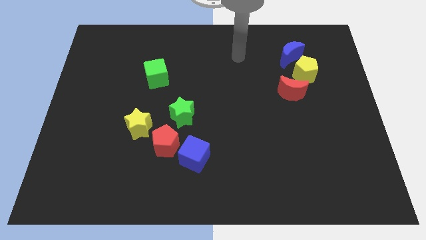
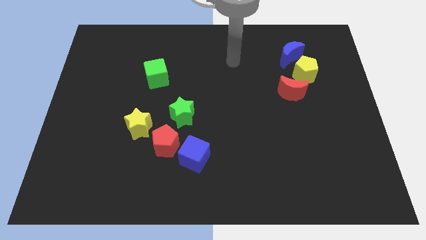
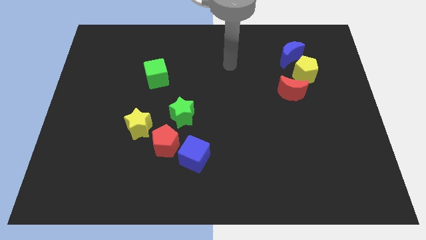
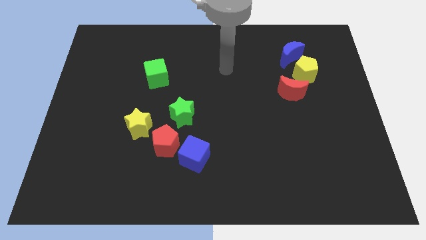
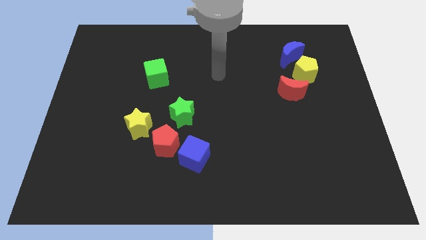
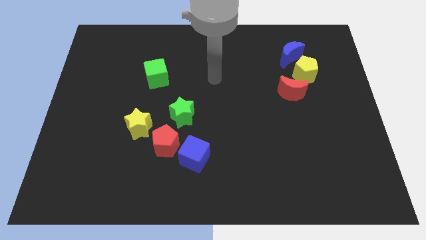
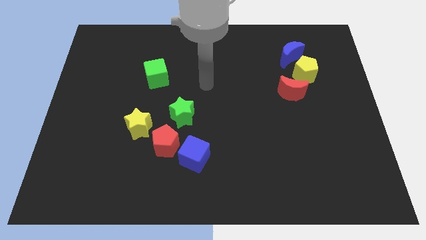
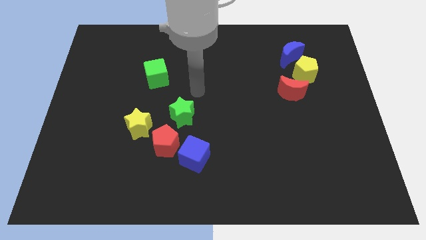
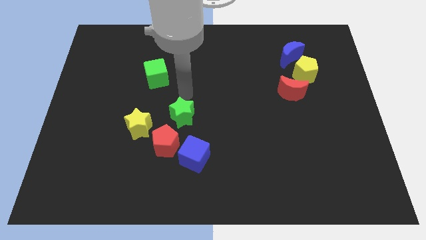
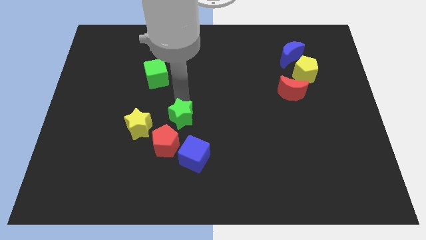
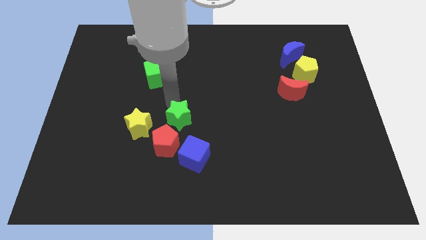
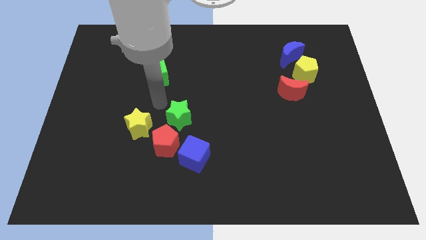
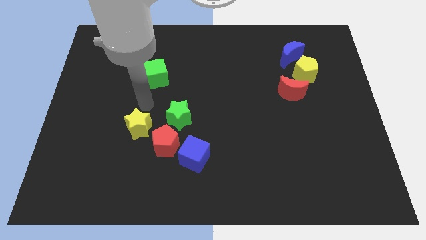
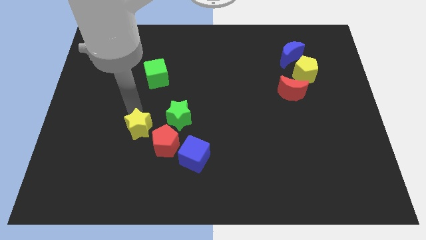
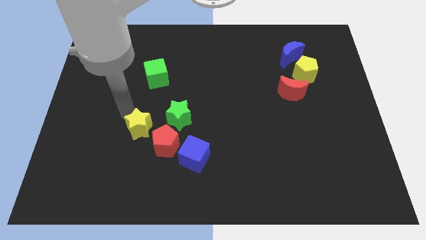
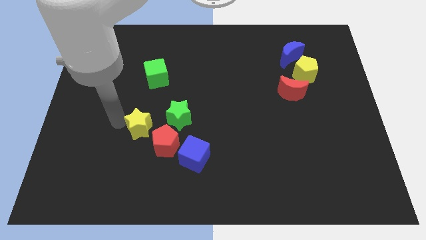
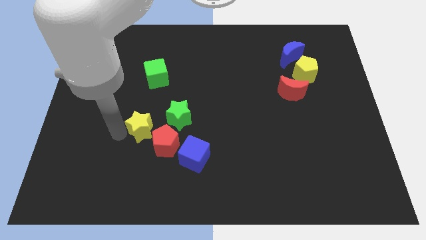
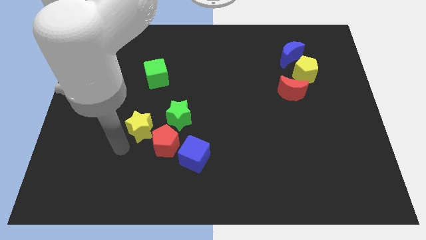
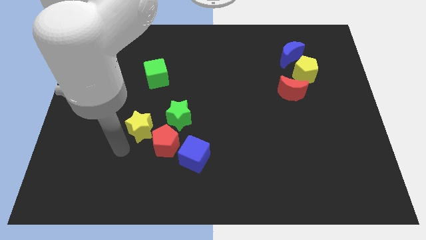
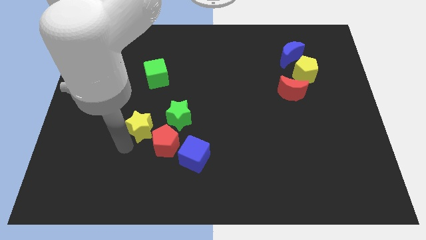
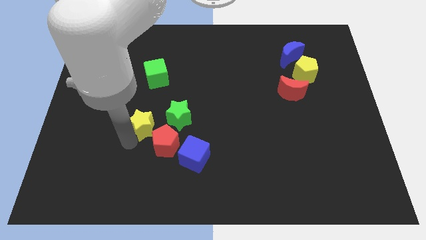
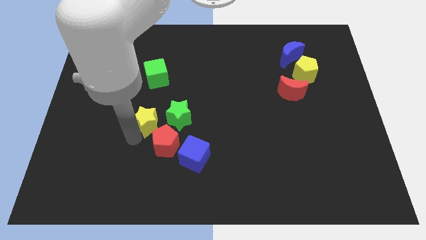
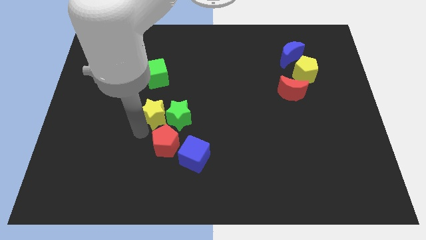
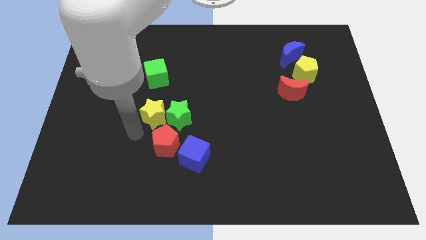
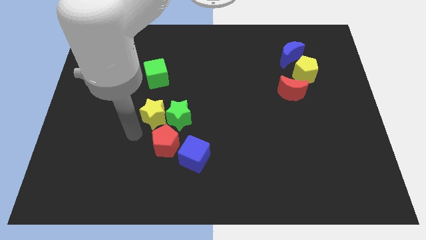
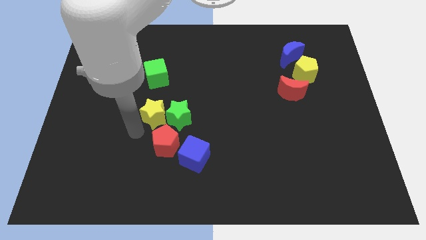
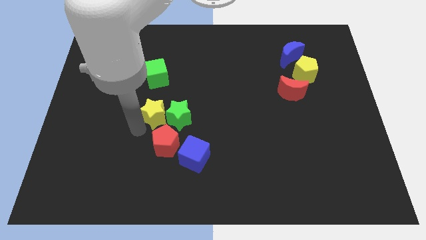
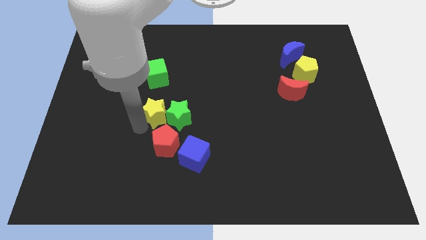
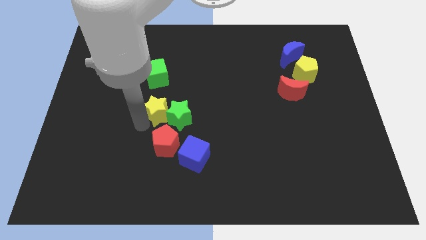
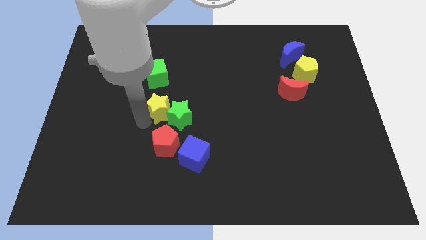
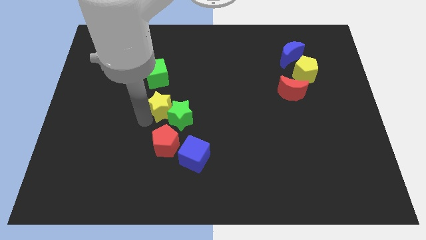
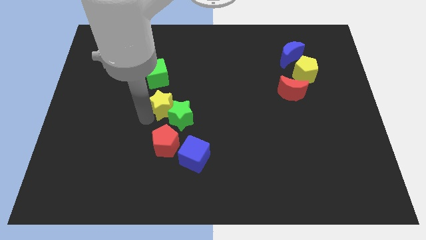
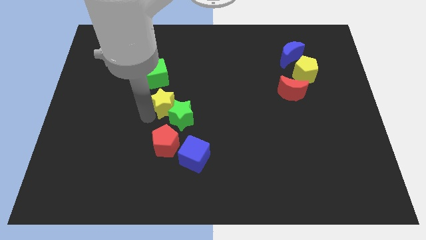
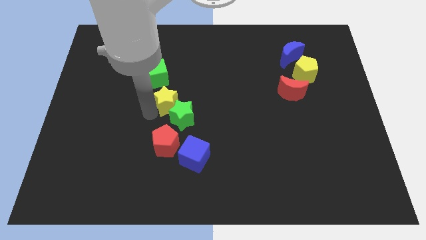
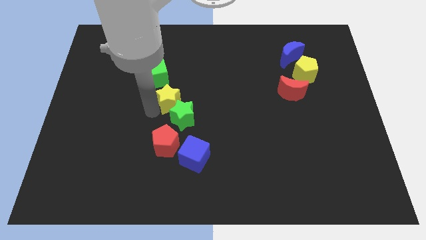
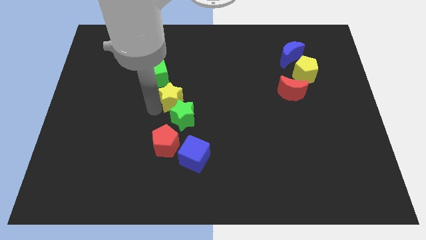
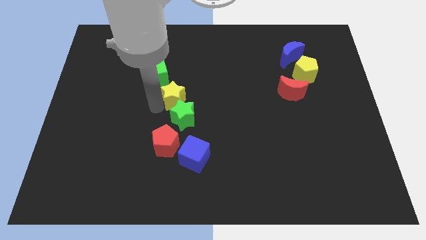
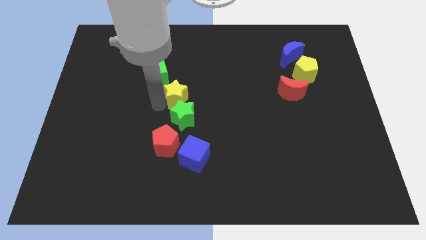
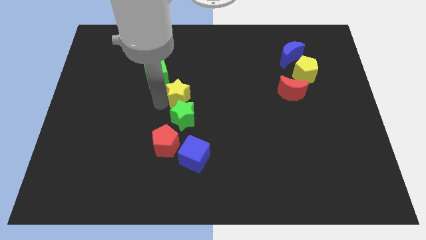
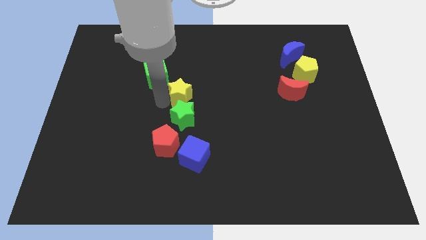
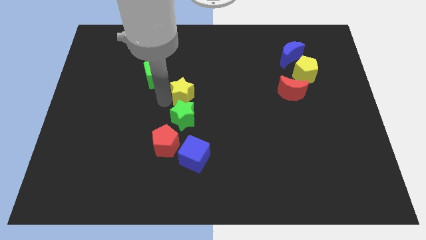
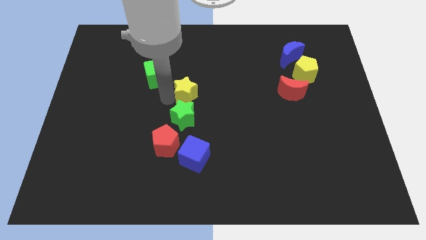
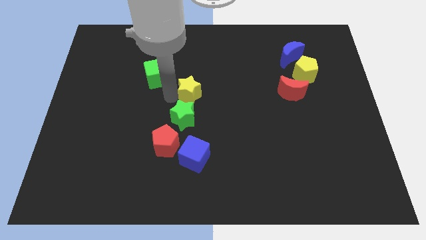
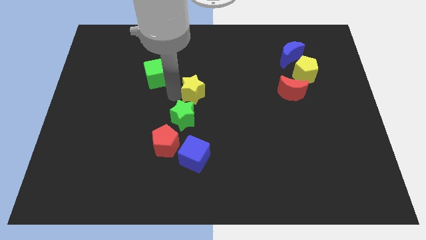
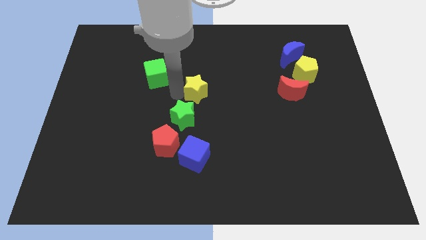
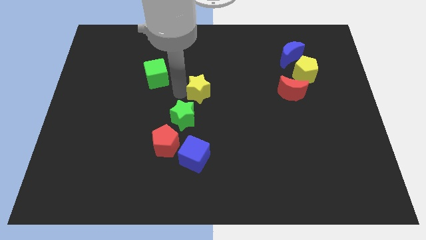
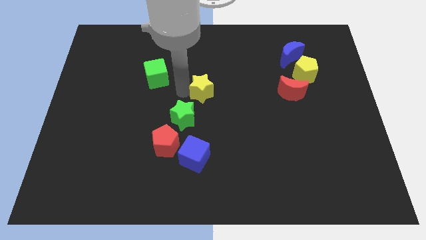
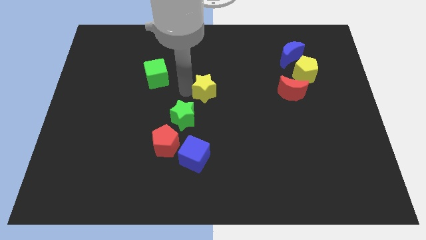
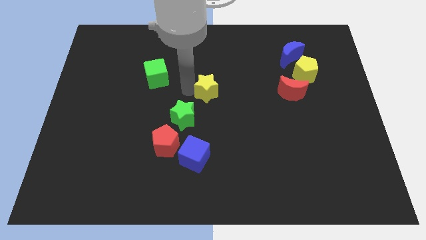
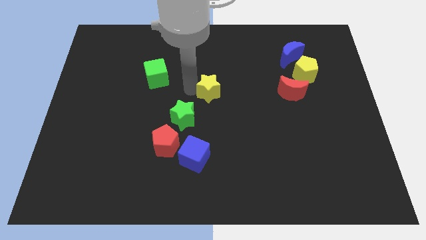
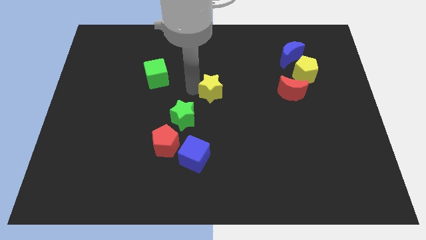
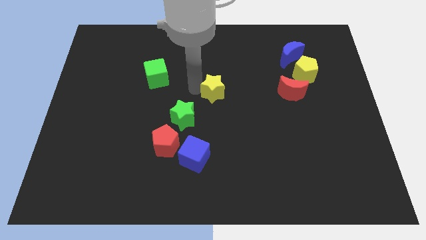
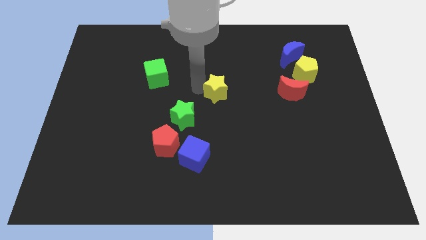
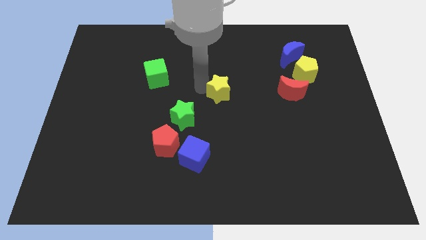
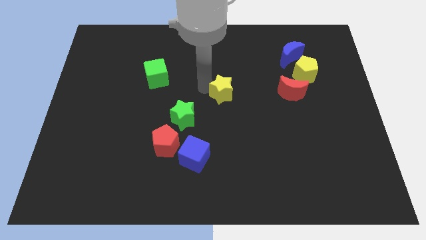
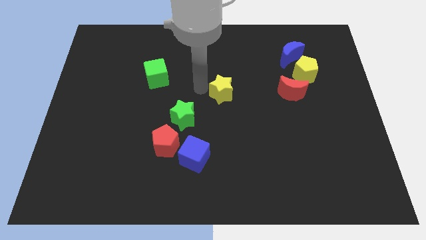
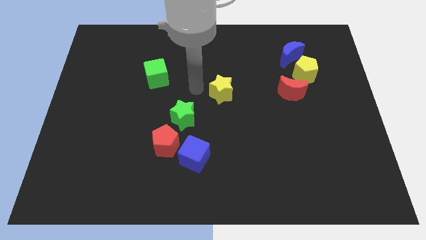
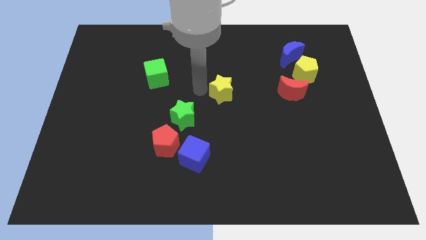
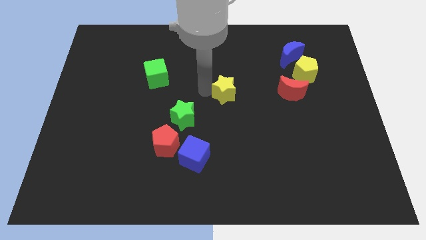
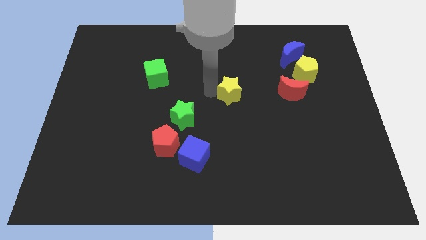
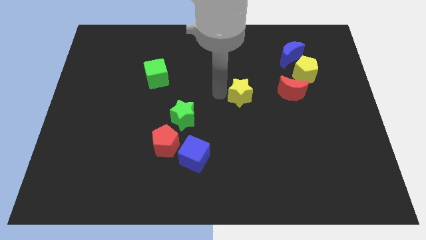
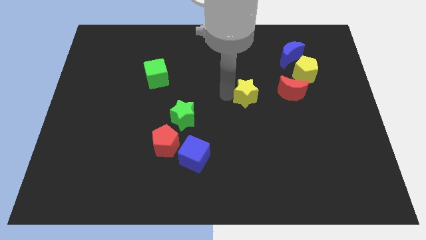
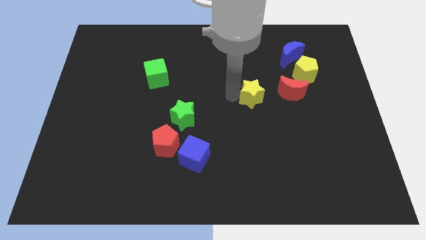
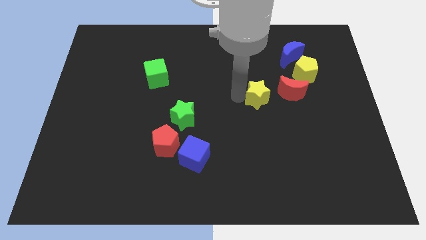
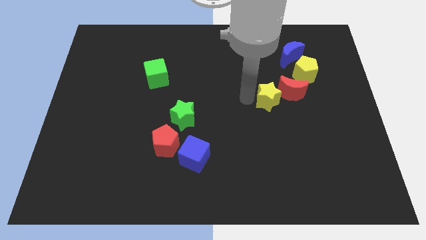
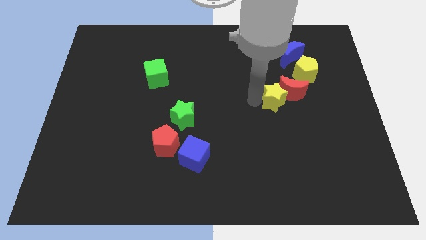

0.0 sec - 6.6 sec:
push the yellow star towards the red moon
